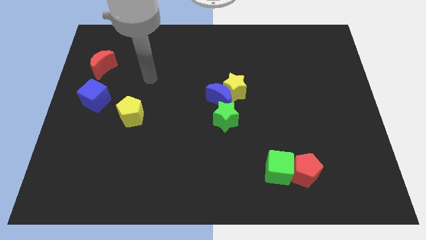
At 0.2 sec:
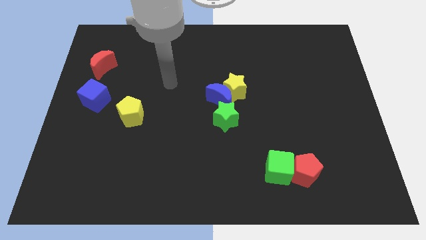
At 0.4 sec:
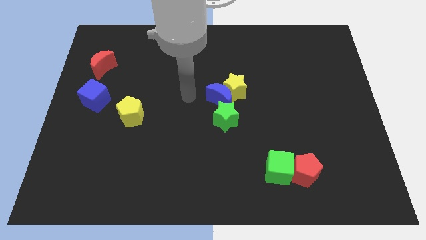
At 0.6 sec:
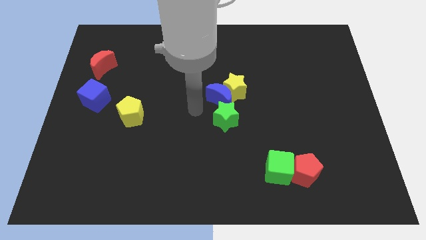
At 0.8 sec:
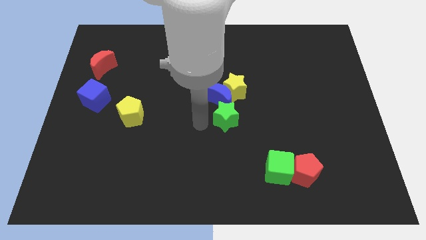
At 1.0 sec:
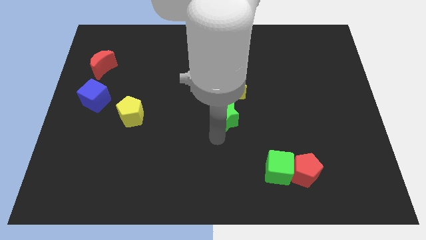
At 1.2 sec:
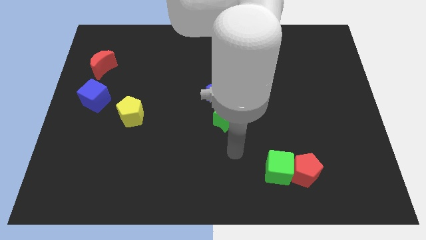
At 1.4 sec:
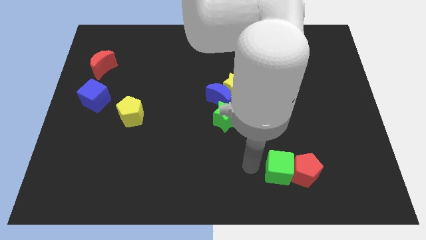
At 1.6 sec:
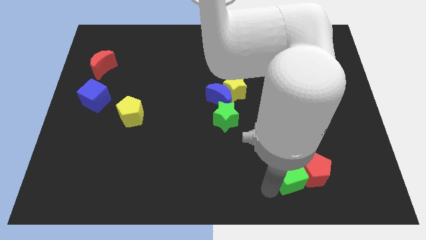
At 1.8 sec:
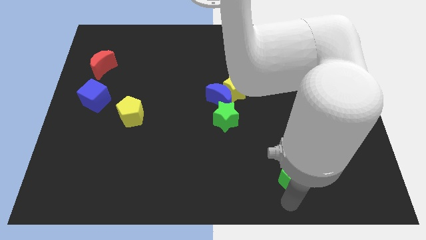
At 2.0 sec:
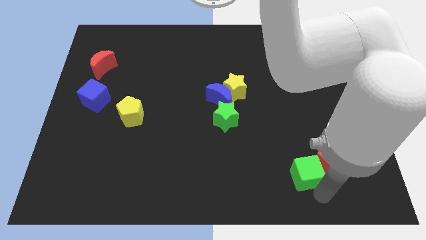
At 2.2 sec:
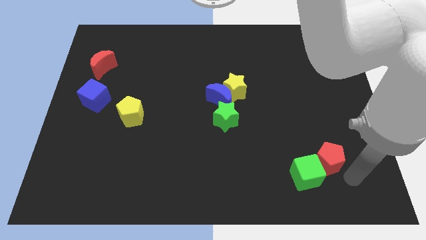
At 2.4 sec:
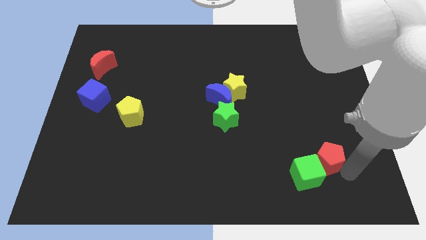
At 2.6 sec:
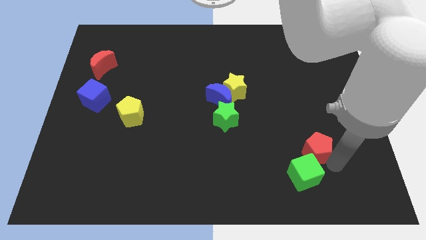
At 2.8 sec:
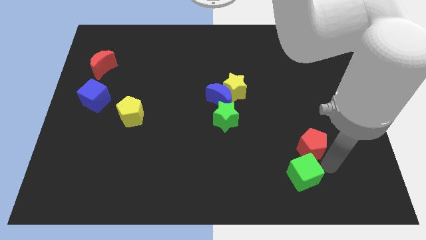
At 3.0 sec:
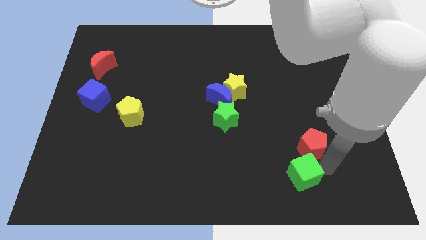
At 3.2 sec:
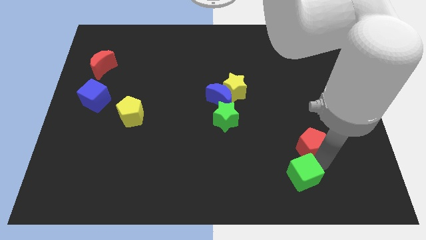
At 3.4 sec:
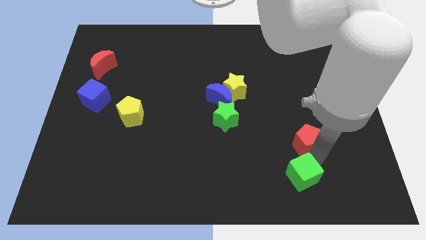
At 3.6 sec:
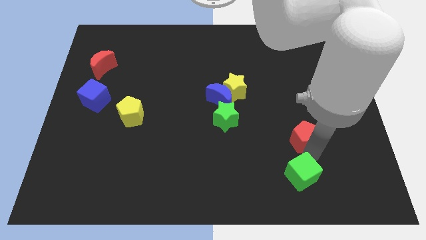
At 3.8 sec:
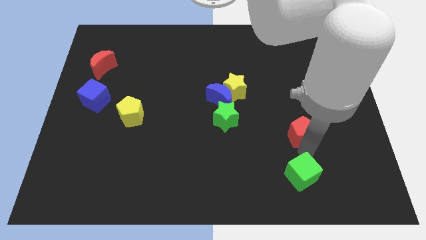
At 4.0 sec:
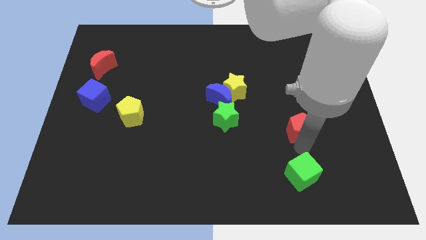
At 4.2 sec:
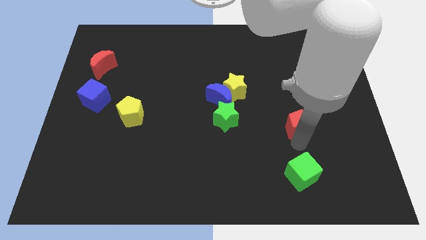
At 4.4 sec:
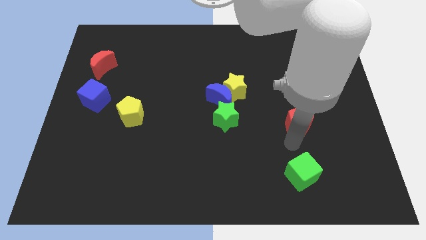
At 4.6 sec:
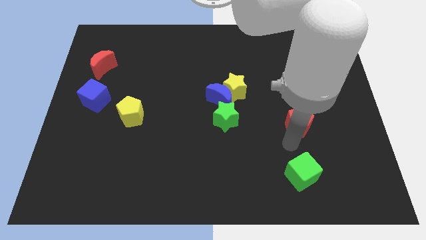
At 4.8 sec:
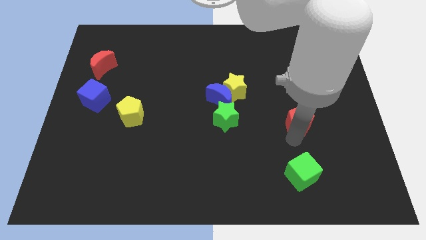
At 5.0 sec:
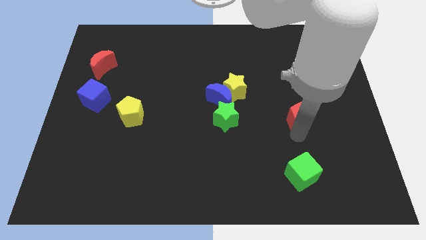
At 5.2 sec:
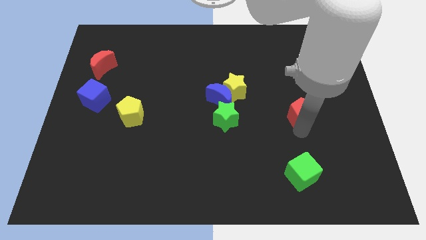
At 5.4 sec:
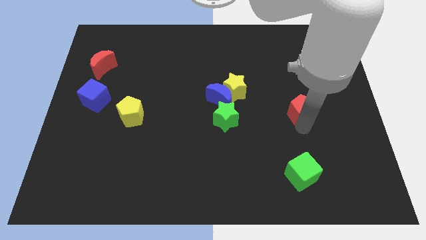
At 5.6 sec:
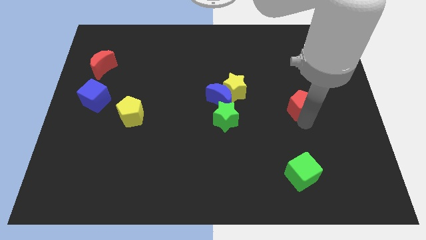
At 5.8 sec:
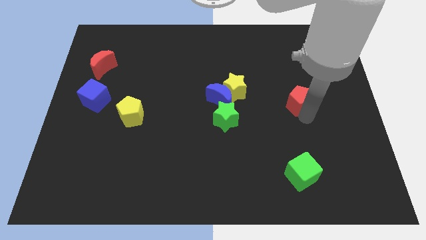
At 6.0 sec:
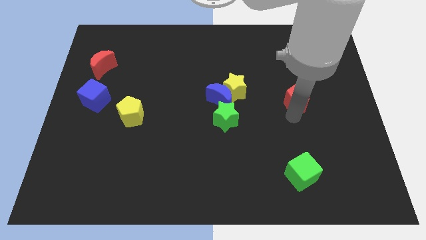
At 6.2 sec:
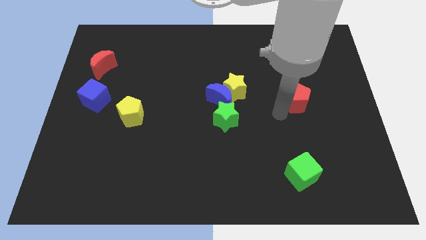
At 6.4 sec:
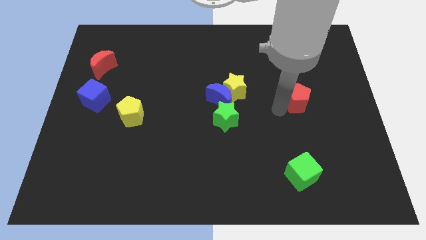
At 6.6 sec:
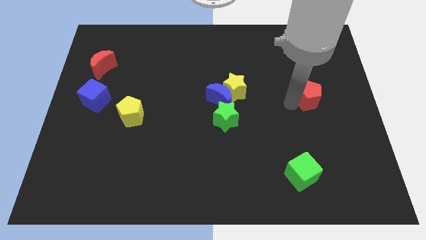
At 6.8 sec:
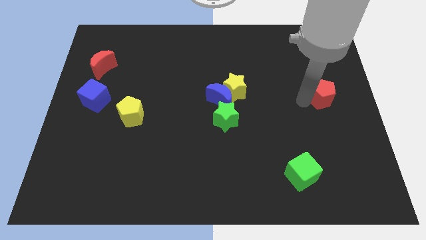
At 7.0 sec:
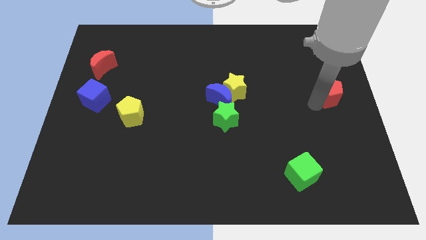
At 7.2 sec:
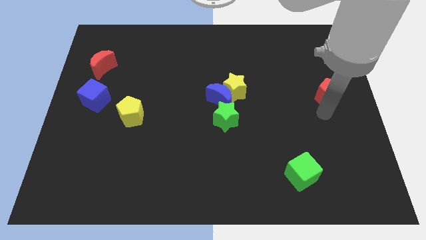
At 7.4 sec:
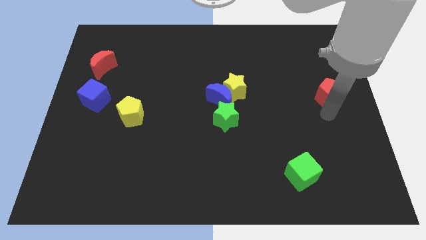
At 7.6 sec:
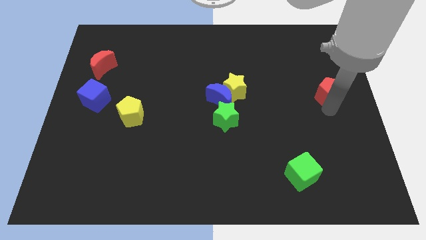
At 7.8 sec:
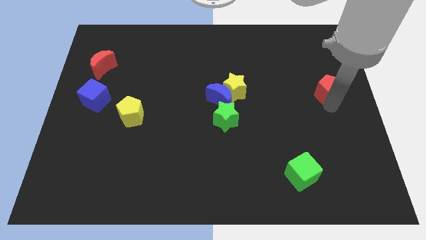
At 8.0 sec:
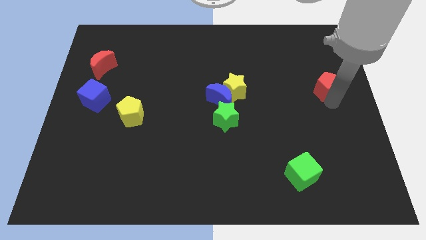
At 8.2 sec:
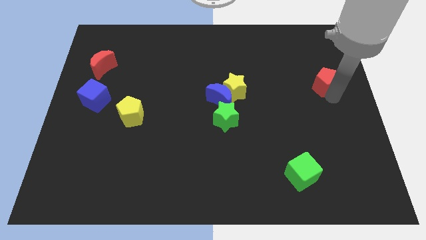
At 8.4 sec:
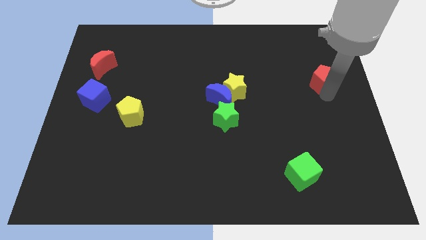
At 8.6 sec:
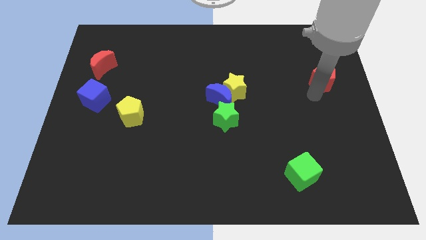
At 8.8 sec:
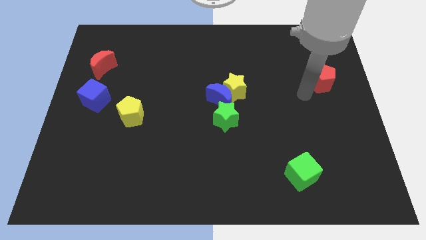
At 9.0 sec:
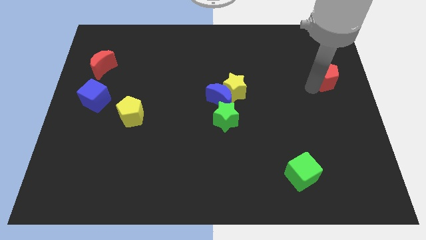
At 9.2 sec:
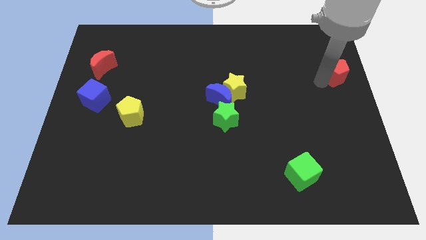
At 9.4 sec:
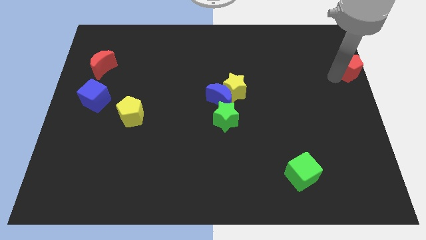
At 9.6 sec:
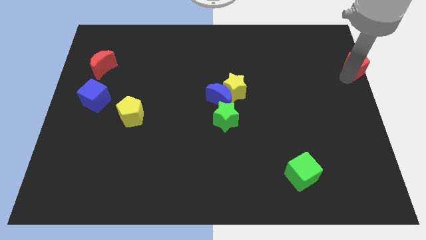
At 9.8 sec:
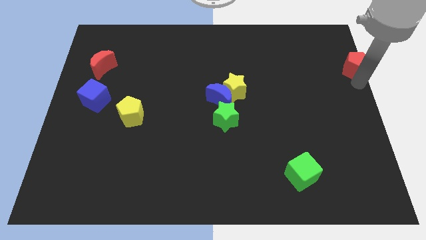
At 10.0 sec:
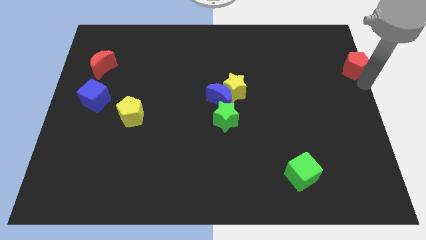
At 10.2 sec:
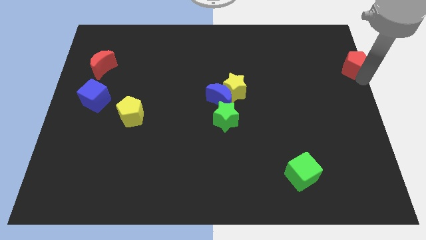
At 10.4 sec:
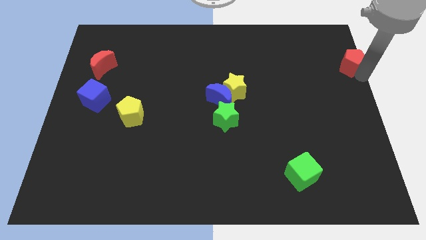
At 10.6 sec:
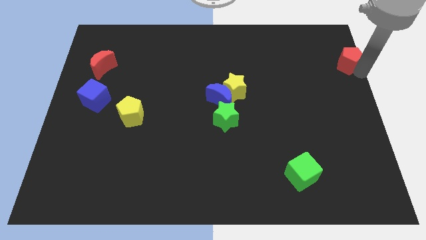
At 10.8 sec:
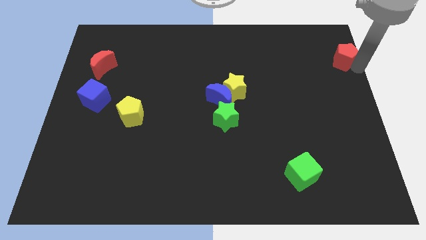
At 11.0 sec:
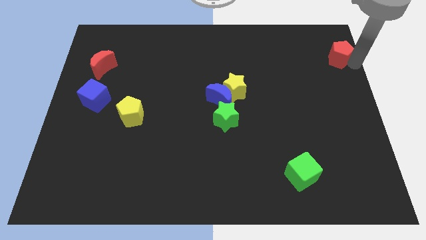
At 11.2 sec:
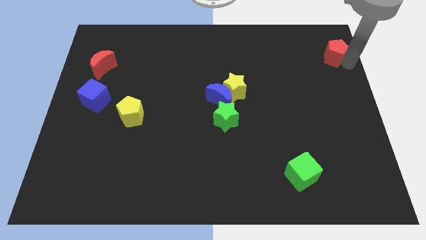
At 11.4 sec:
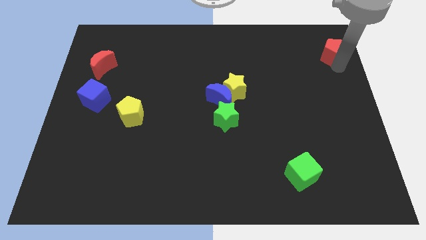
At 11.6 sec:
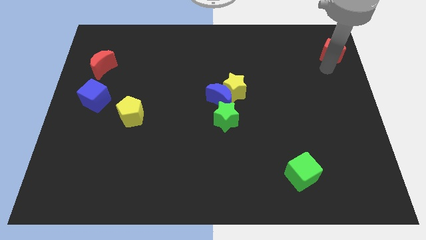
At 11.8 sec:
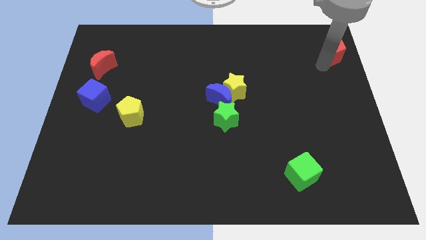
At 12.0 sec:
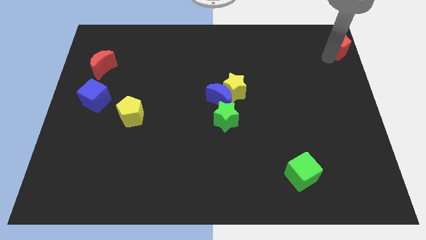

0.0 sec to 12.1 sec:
slide the red pentagon to the upper right corner

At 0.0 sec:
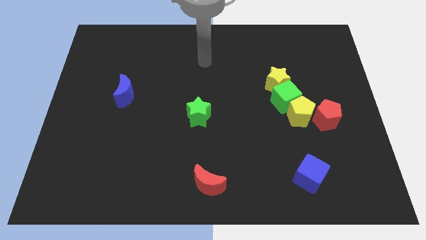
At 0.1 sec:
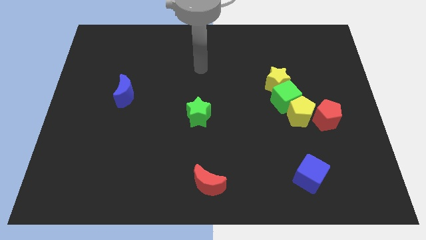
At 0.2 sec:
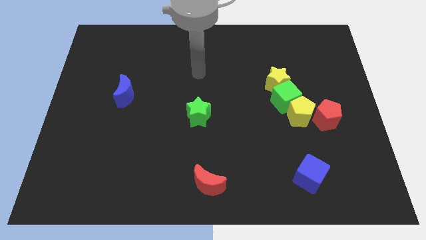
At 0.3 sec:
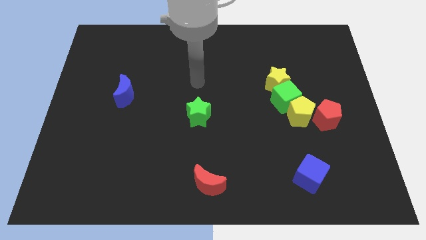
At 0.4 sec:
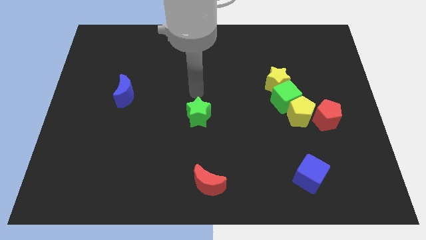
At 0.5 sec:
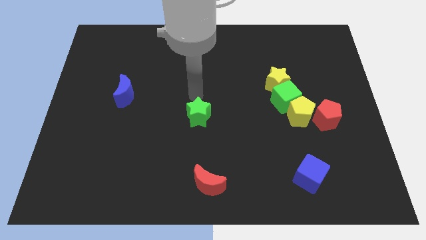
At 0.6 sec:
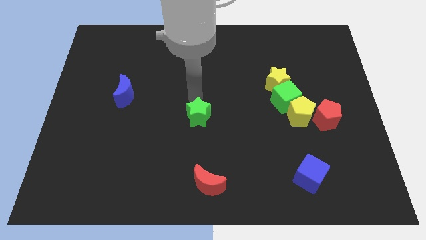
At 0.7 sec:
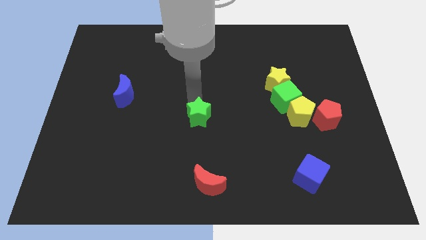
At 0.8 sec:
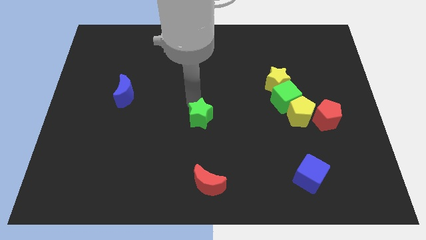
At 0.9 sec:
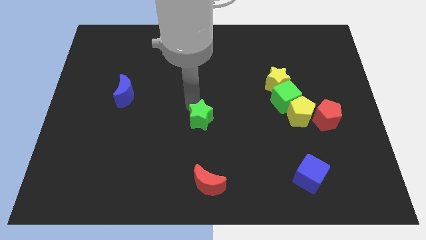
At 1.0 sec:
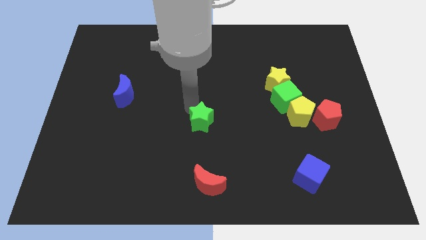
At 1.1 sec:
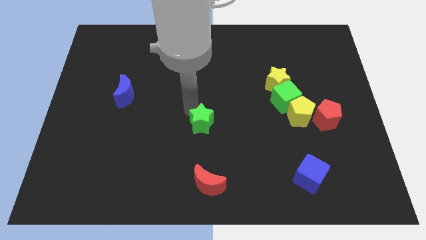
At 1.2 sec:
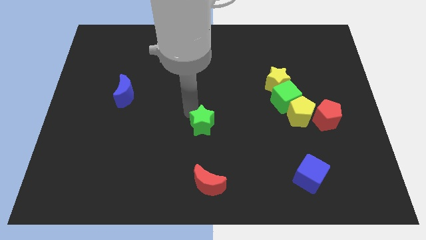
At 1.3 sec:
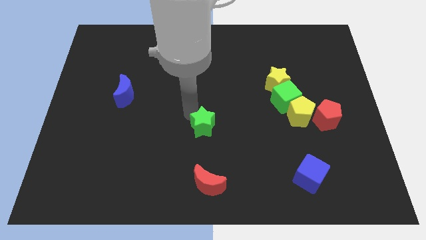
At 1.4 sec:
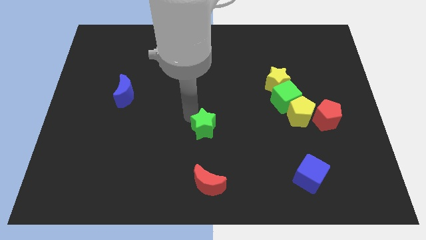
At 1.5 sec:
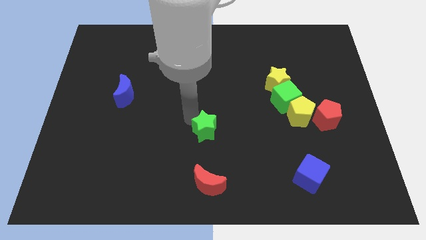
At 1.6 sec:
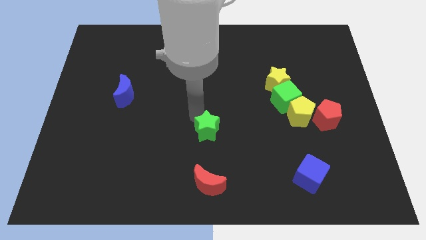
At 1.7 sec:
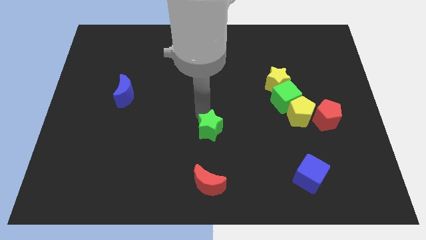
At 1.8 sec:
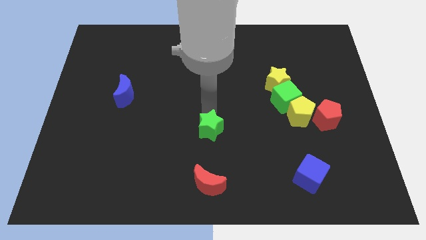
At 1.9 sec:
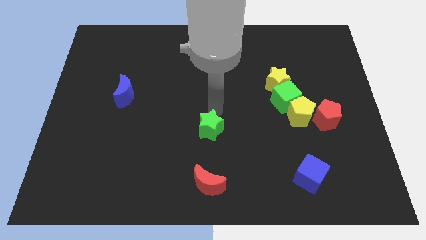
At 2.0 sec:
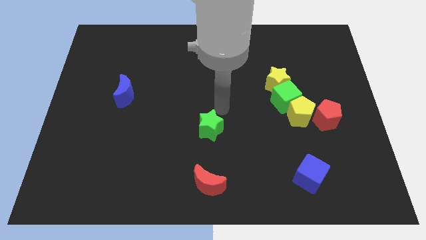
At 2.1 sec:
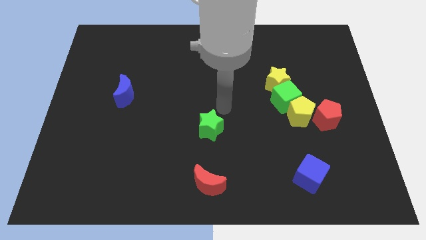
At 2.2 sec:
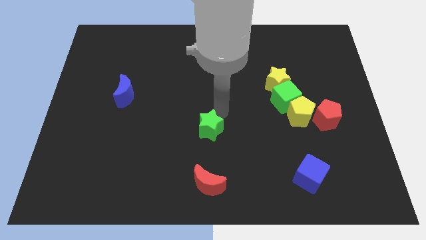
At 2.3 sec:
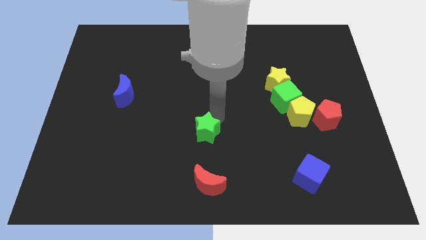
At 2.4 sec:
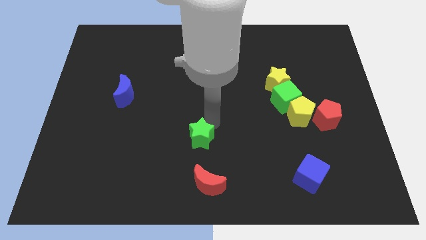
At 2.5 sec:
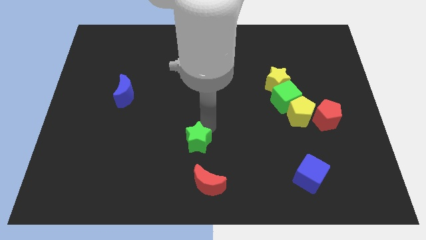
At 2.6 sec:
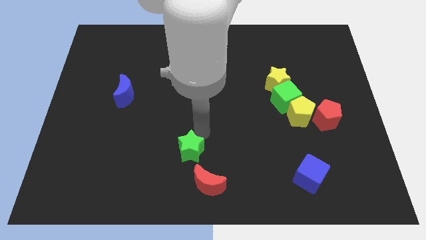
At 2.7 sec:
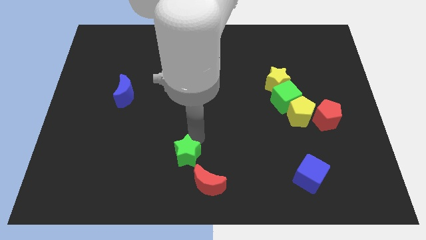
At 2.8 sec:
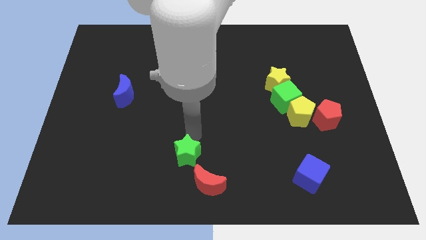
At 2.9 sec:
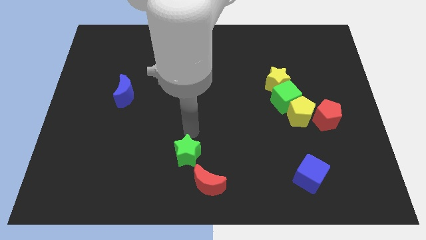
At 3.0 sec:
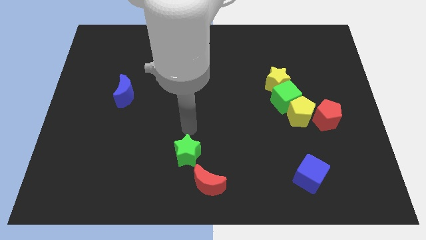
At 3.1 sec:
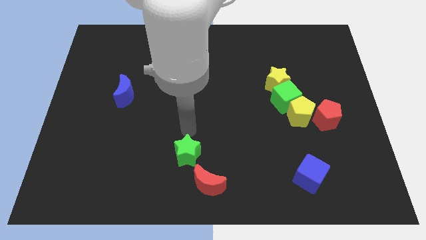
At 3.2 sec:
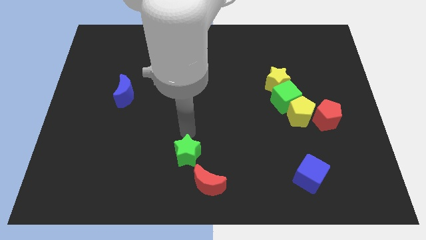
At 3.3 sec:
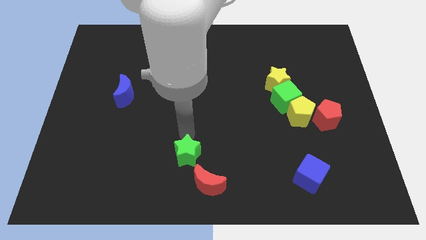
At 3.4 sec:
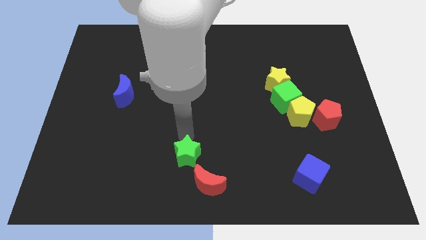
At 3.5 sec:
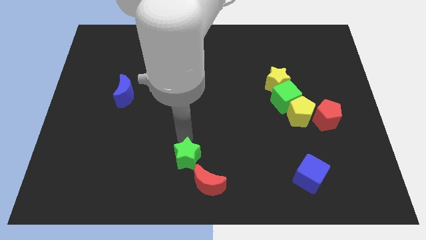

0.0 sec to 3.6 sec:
put the green star to the bottom
